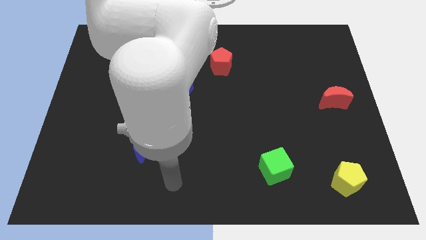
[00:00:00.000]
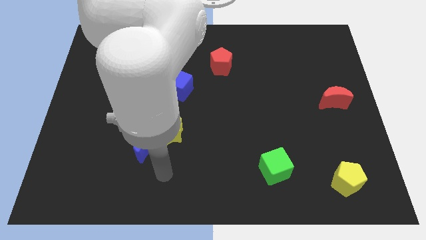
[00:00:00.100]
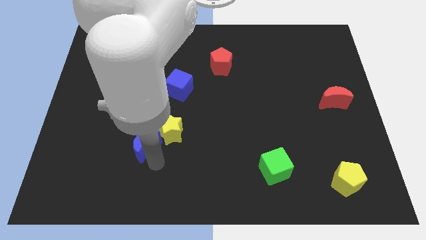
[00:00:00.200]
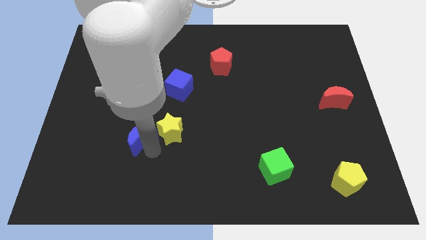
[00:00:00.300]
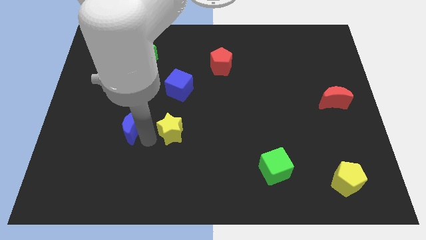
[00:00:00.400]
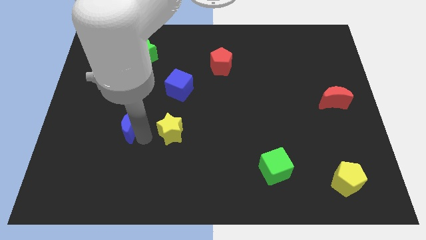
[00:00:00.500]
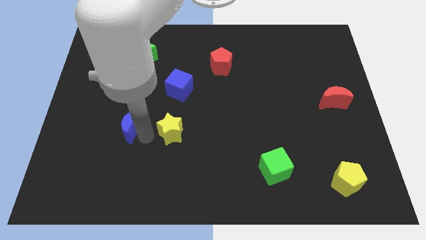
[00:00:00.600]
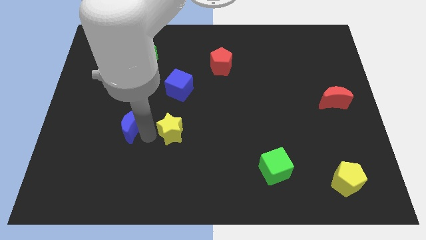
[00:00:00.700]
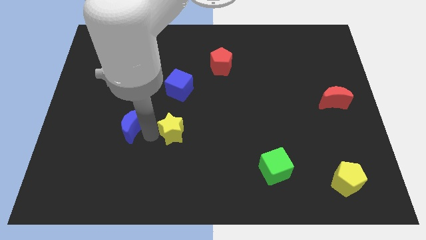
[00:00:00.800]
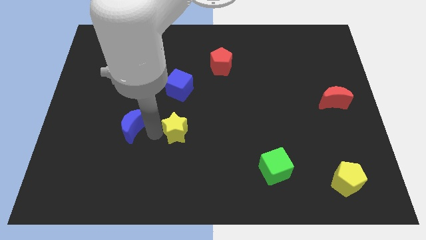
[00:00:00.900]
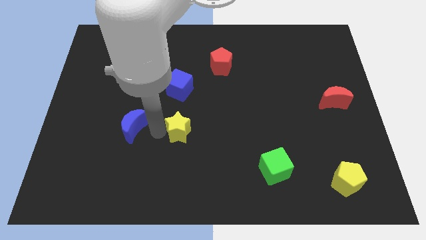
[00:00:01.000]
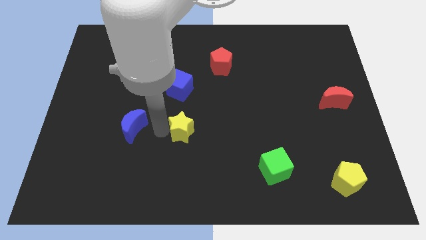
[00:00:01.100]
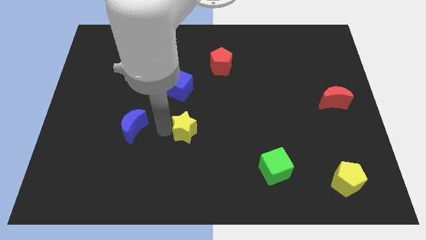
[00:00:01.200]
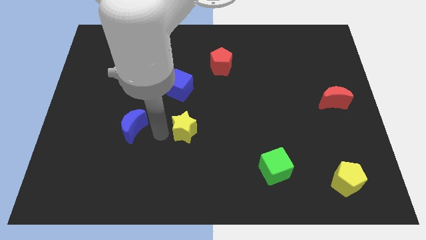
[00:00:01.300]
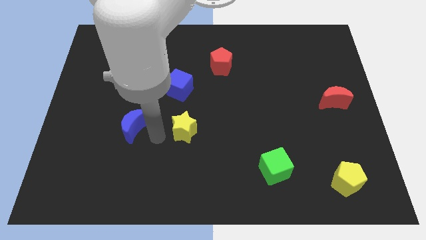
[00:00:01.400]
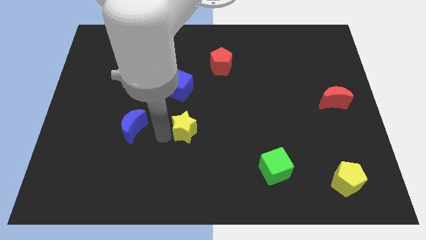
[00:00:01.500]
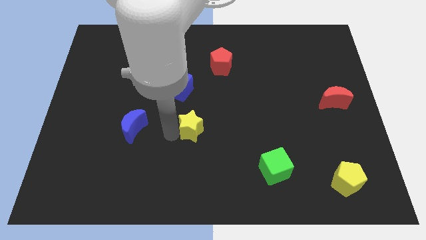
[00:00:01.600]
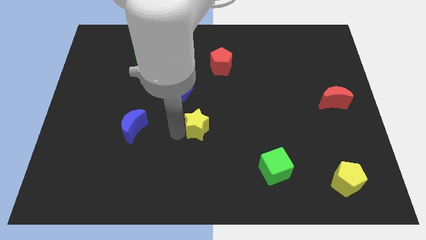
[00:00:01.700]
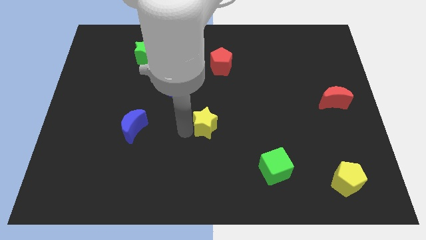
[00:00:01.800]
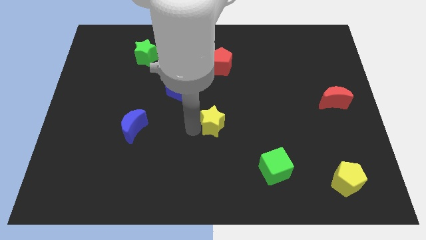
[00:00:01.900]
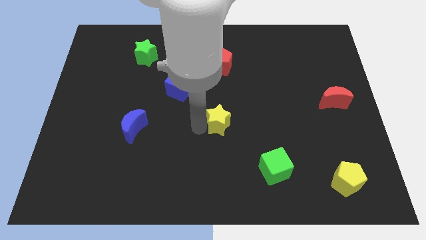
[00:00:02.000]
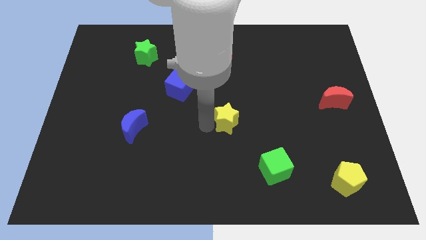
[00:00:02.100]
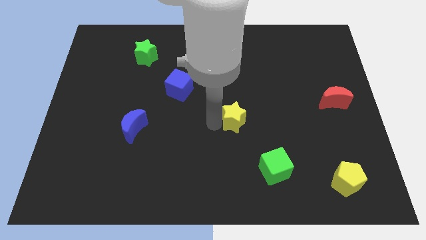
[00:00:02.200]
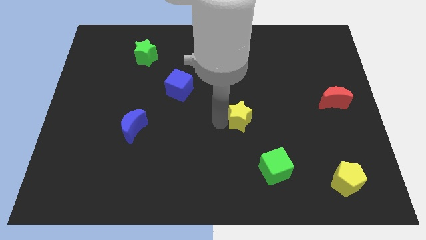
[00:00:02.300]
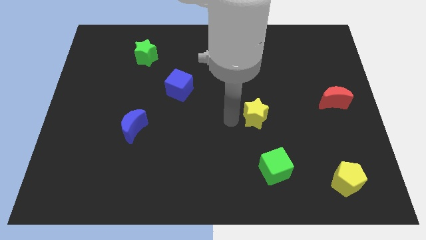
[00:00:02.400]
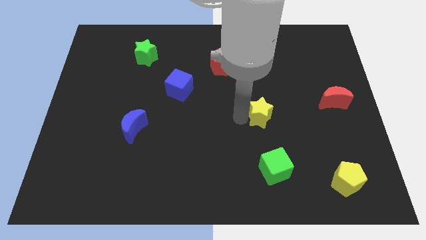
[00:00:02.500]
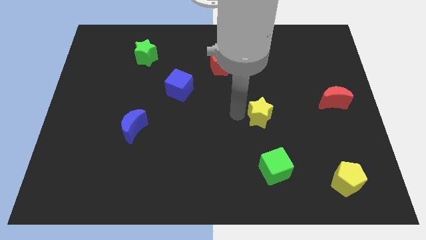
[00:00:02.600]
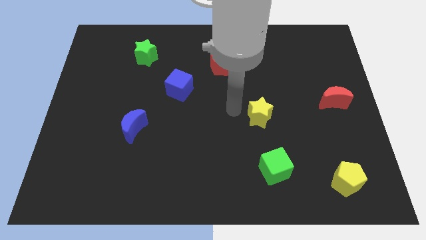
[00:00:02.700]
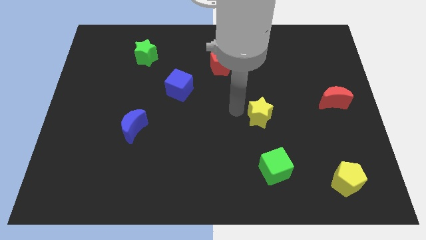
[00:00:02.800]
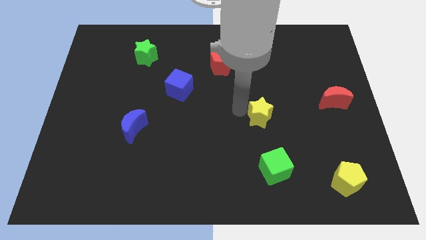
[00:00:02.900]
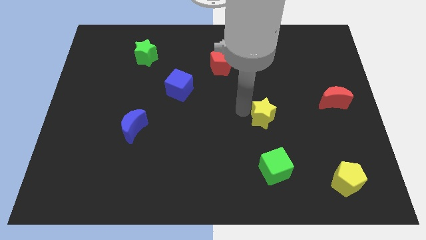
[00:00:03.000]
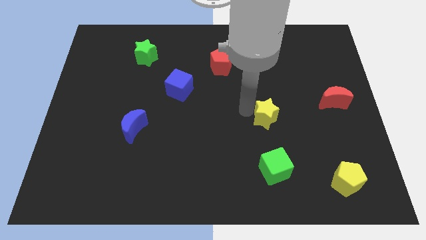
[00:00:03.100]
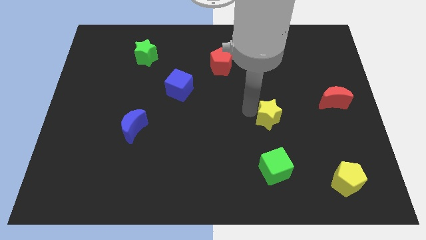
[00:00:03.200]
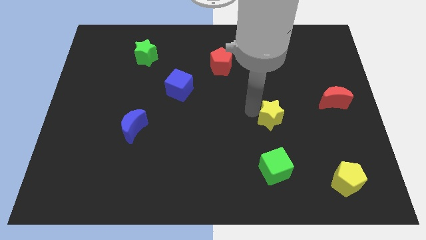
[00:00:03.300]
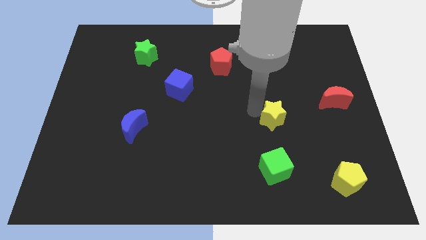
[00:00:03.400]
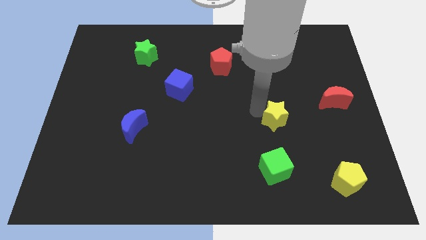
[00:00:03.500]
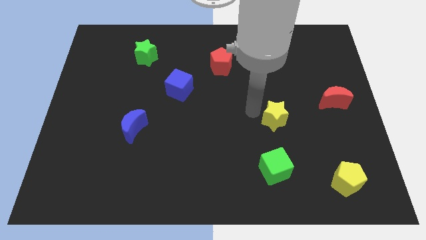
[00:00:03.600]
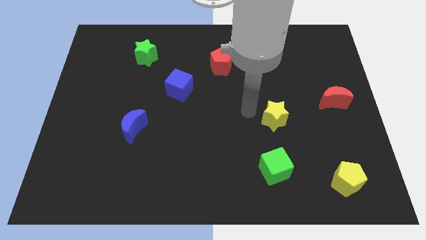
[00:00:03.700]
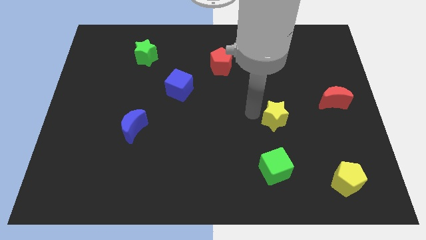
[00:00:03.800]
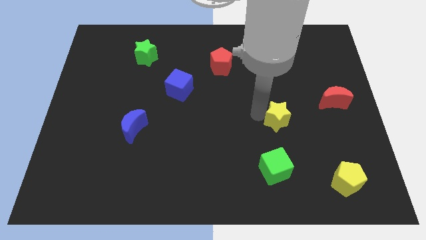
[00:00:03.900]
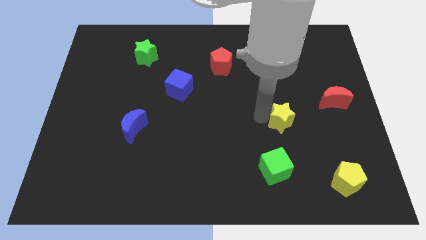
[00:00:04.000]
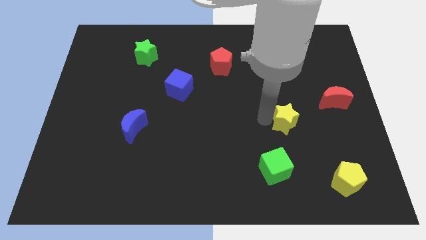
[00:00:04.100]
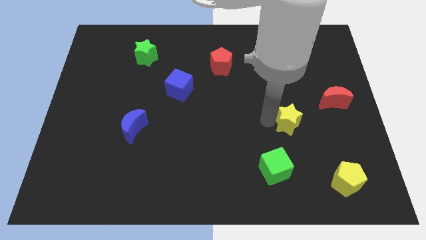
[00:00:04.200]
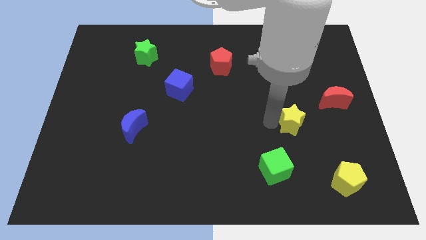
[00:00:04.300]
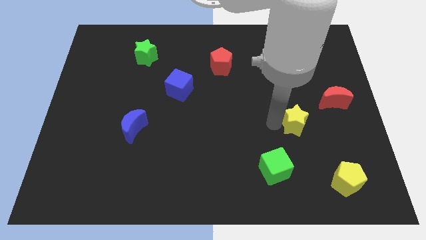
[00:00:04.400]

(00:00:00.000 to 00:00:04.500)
put the yellow star diagonally down and to the left of the red moon

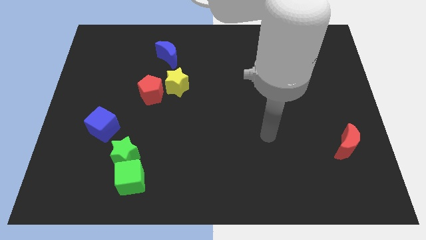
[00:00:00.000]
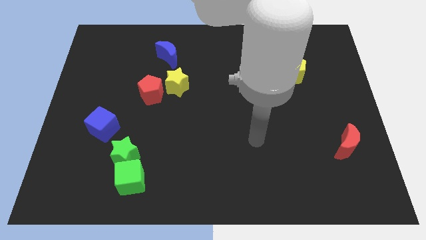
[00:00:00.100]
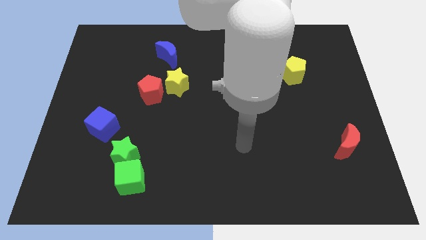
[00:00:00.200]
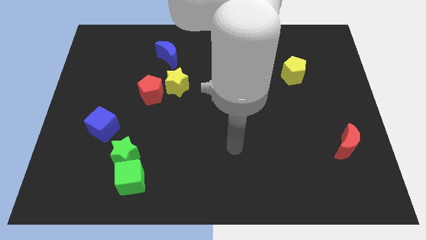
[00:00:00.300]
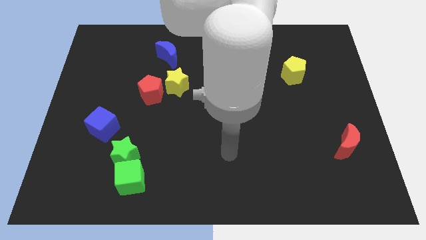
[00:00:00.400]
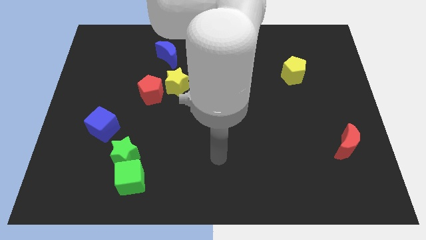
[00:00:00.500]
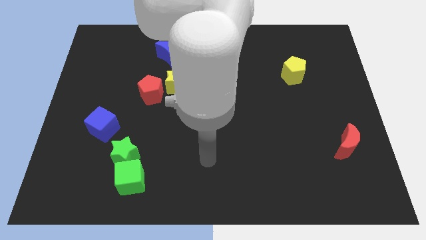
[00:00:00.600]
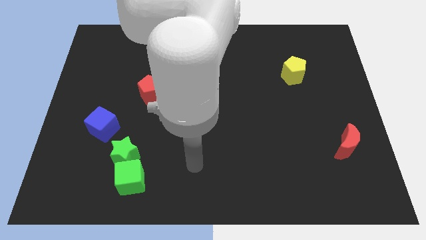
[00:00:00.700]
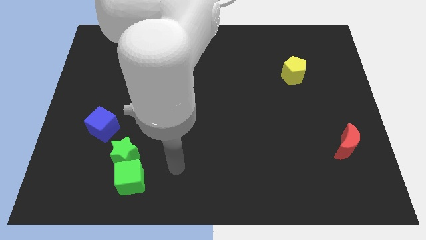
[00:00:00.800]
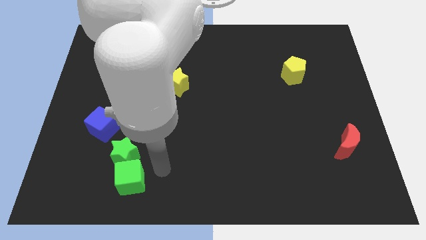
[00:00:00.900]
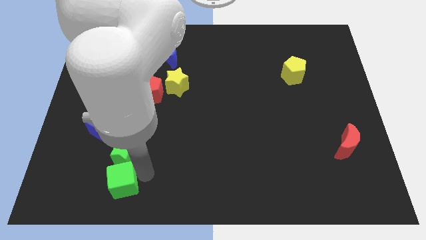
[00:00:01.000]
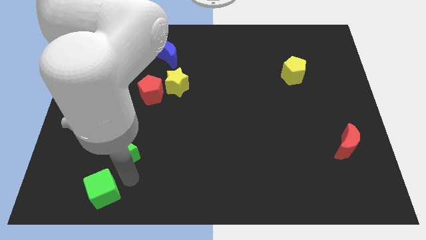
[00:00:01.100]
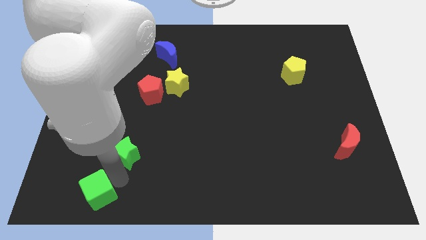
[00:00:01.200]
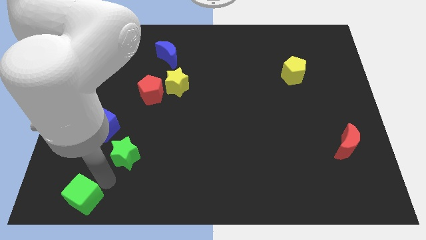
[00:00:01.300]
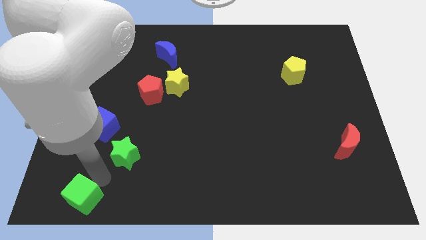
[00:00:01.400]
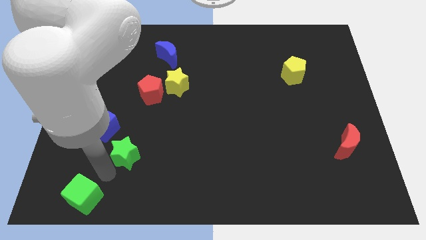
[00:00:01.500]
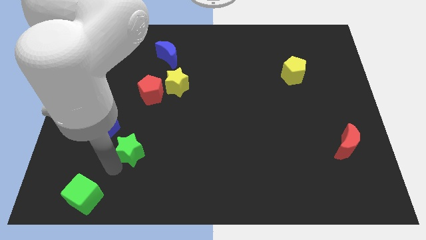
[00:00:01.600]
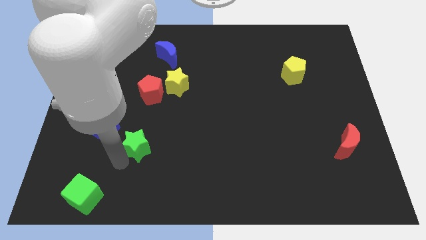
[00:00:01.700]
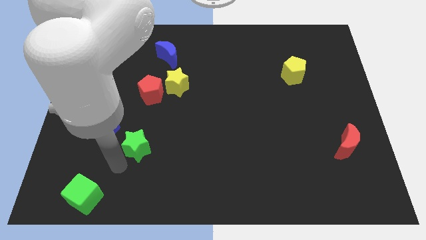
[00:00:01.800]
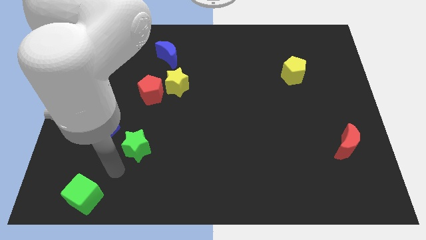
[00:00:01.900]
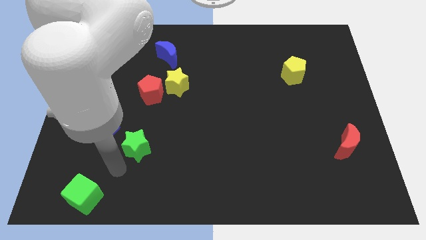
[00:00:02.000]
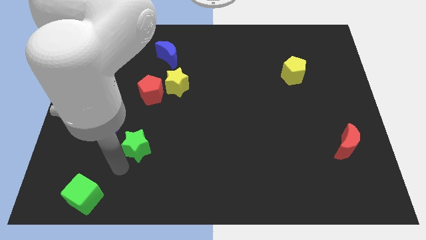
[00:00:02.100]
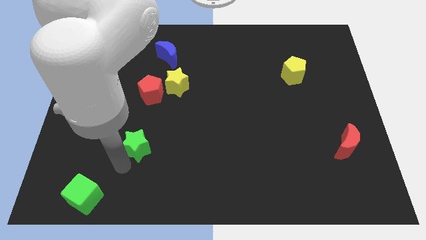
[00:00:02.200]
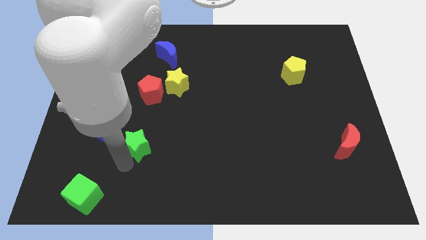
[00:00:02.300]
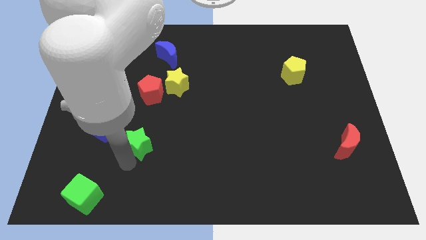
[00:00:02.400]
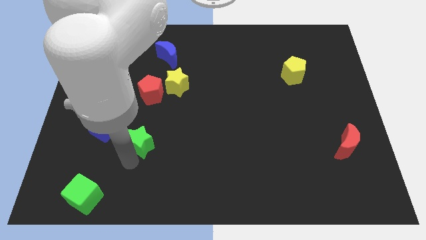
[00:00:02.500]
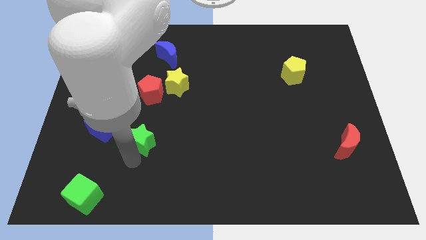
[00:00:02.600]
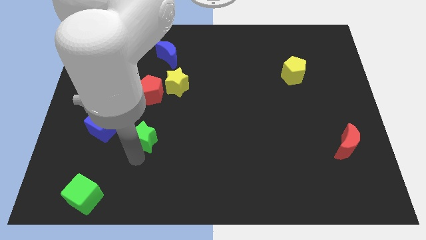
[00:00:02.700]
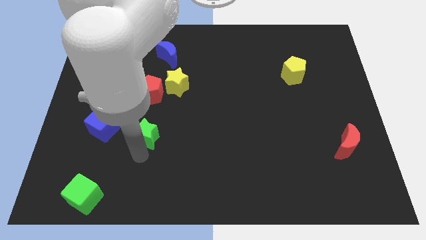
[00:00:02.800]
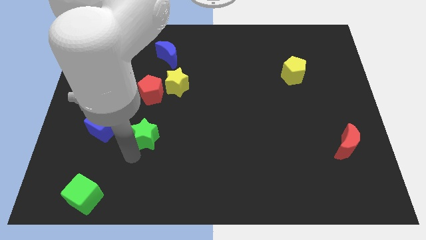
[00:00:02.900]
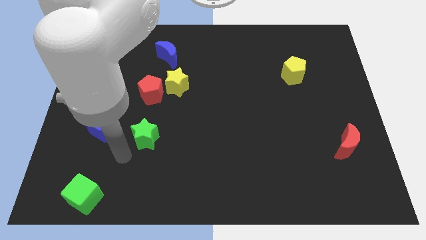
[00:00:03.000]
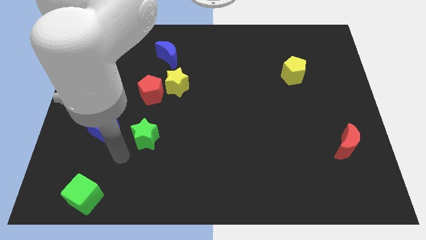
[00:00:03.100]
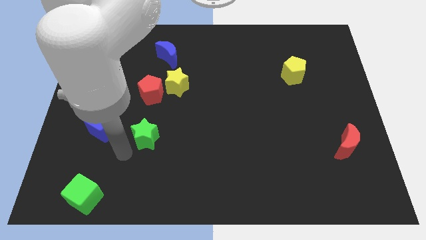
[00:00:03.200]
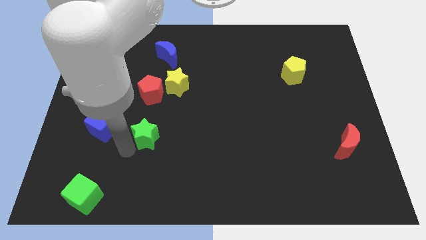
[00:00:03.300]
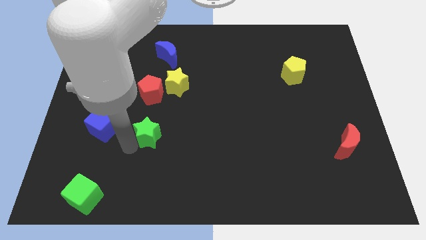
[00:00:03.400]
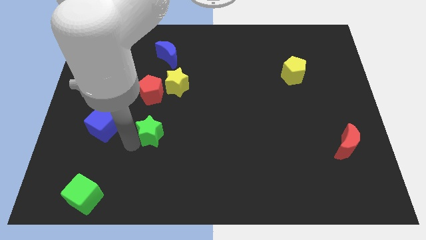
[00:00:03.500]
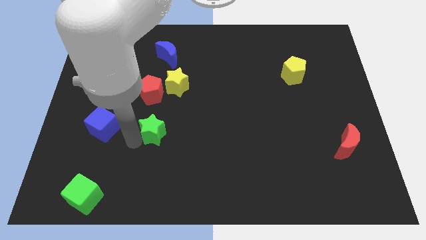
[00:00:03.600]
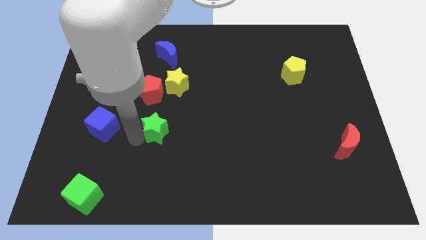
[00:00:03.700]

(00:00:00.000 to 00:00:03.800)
put the green star to the bottom of the yellow star
